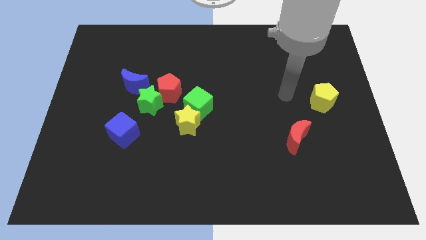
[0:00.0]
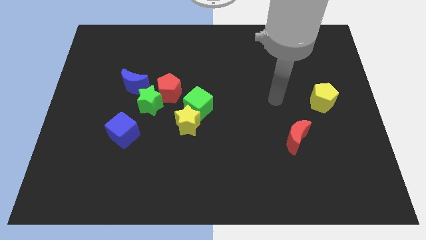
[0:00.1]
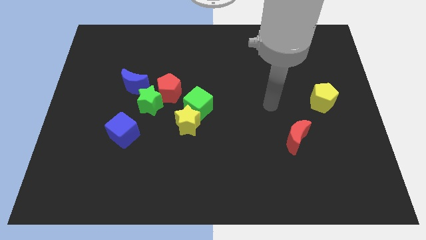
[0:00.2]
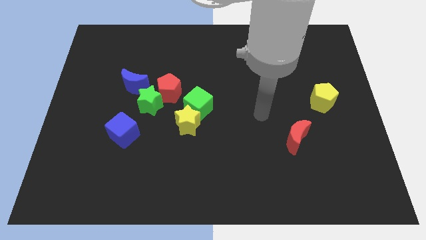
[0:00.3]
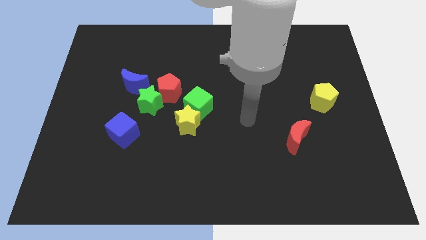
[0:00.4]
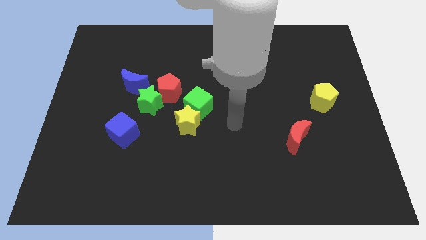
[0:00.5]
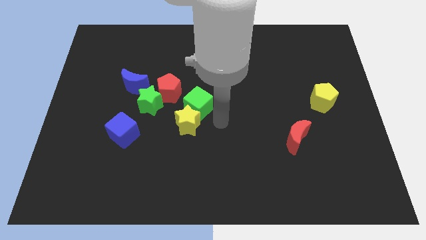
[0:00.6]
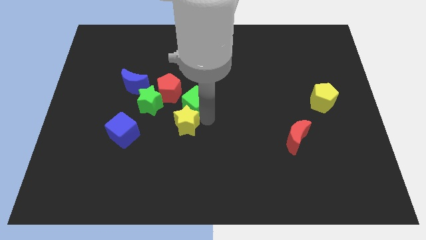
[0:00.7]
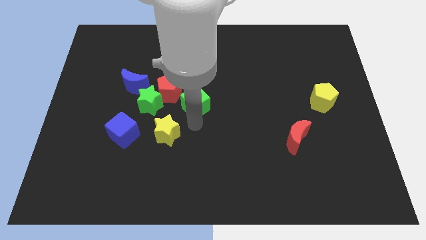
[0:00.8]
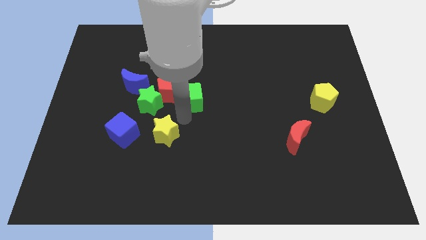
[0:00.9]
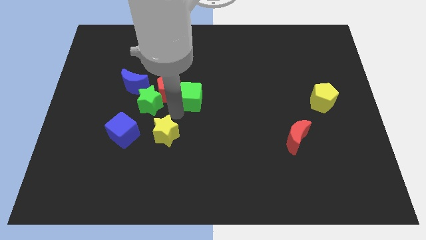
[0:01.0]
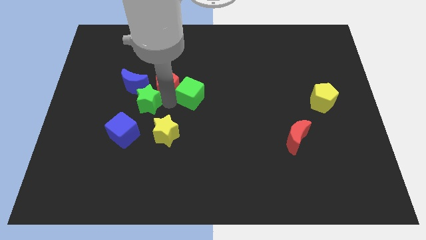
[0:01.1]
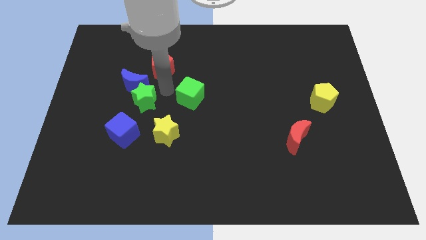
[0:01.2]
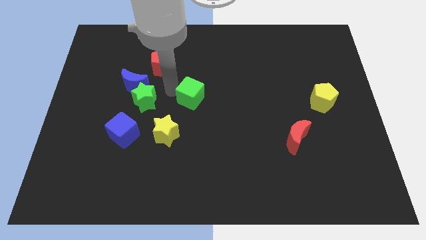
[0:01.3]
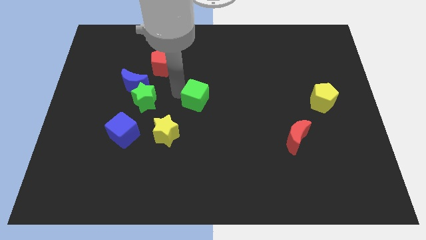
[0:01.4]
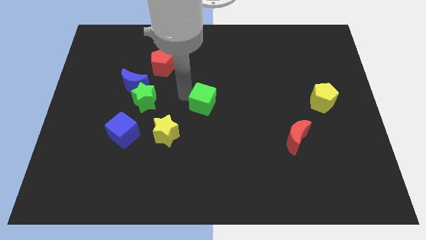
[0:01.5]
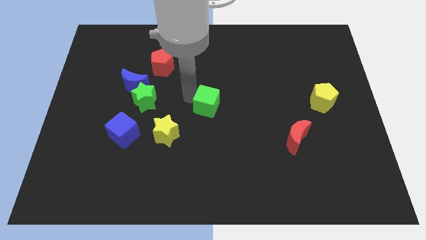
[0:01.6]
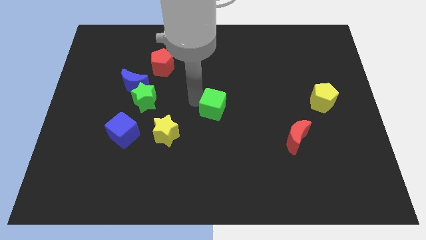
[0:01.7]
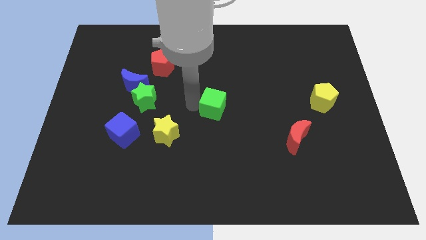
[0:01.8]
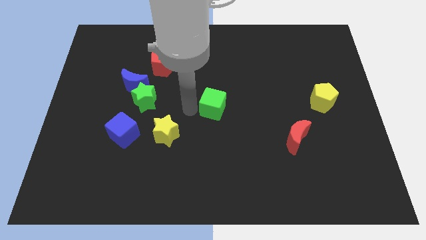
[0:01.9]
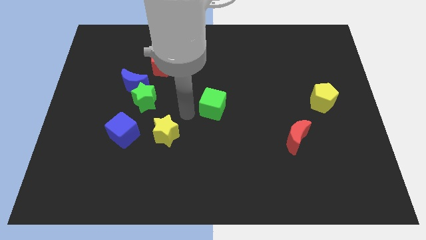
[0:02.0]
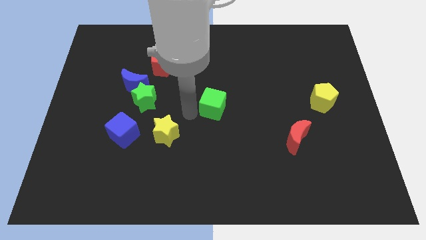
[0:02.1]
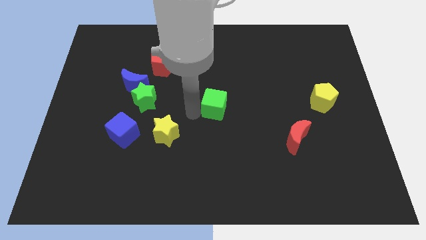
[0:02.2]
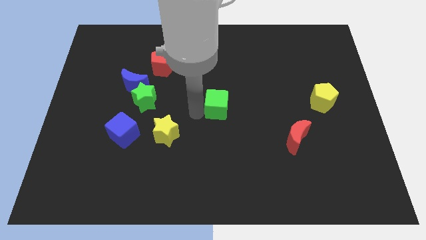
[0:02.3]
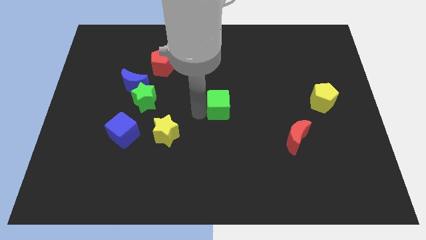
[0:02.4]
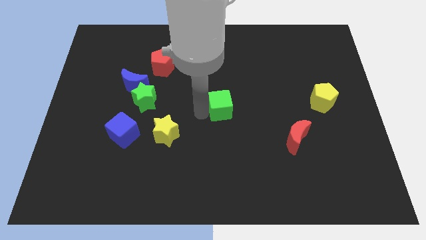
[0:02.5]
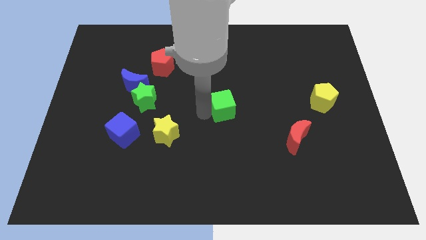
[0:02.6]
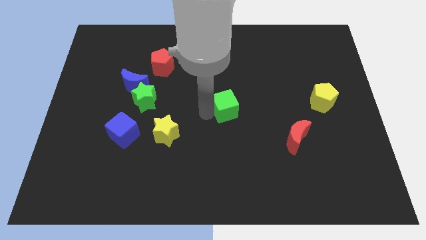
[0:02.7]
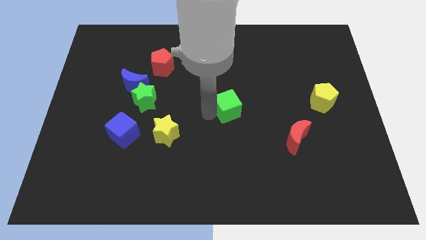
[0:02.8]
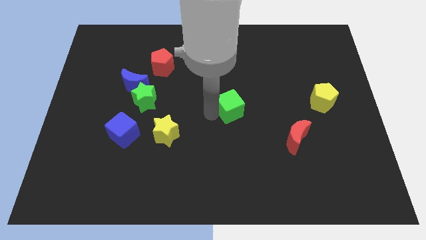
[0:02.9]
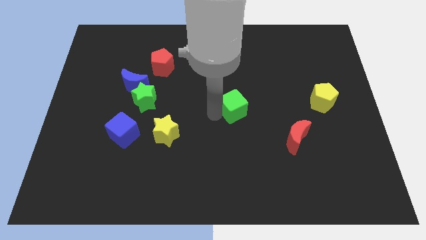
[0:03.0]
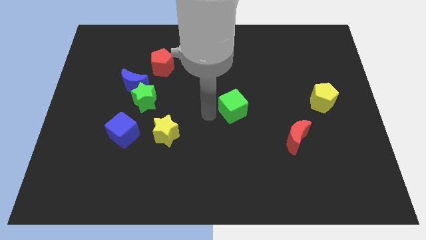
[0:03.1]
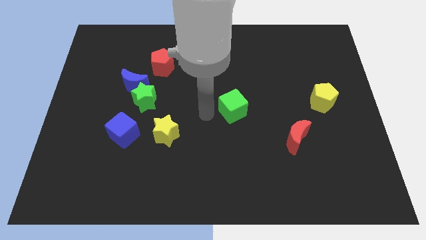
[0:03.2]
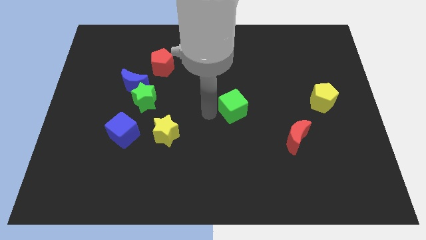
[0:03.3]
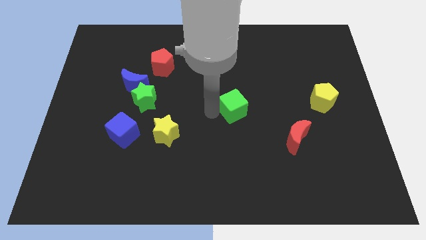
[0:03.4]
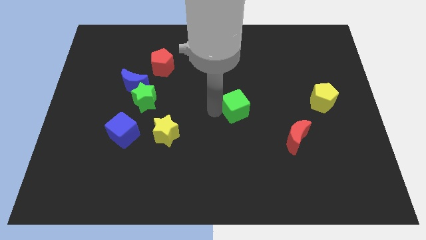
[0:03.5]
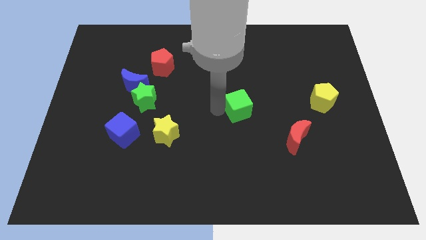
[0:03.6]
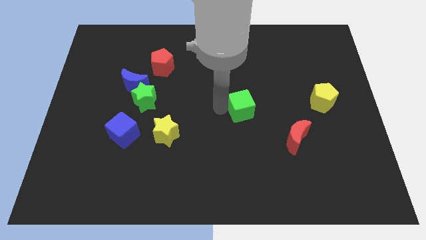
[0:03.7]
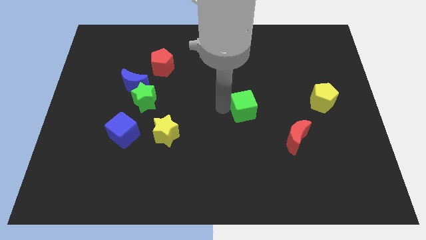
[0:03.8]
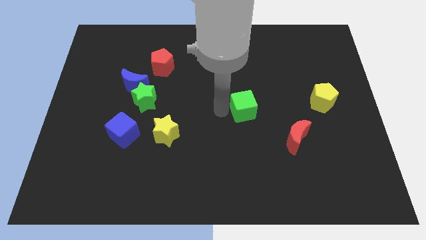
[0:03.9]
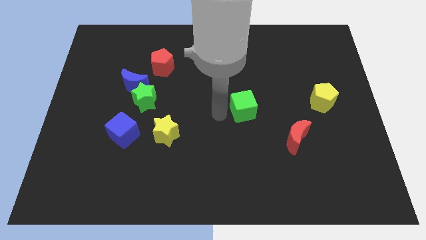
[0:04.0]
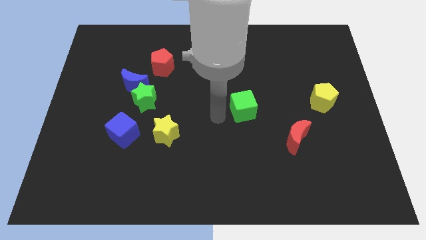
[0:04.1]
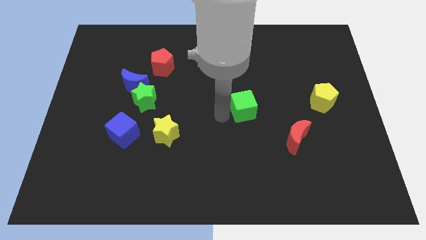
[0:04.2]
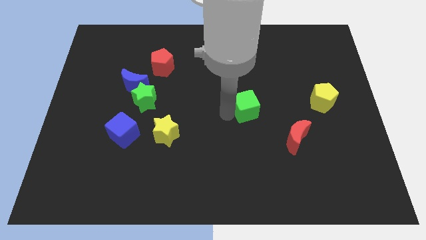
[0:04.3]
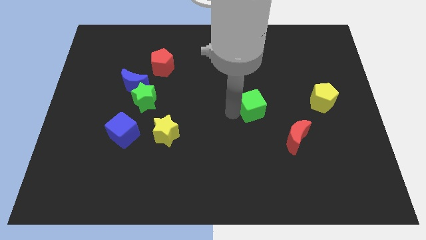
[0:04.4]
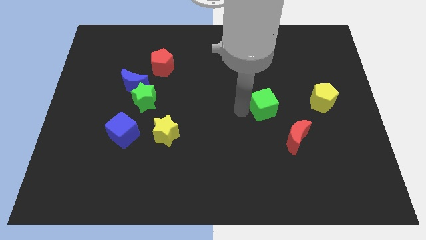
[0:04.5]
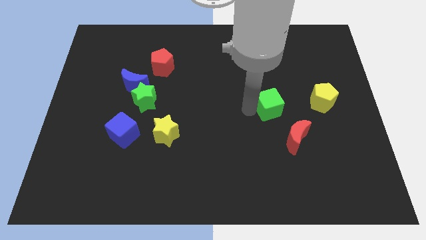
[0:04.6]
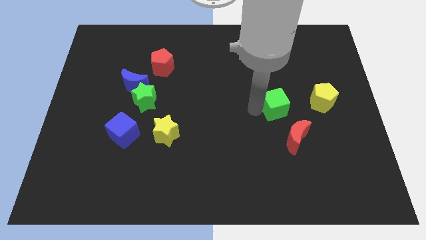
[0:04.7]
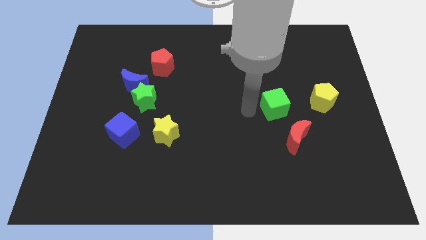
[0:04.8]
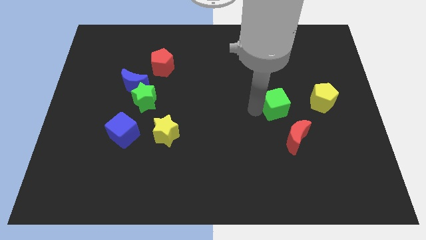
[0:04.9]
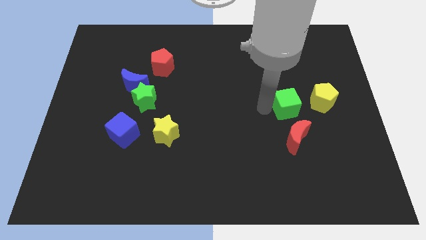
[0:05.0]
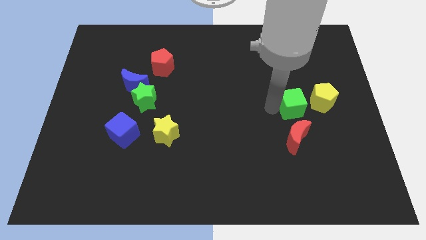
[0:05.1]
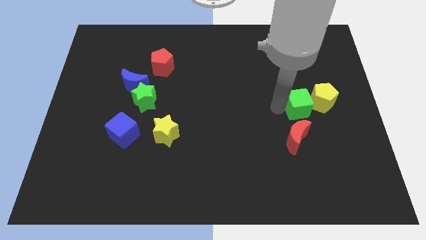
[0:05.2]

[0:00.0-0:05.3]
slide the green cube to the yellow pentagon

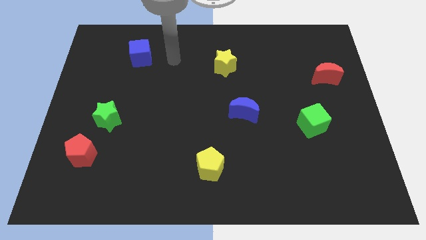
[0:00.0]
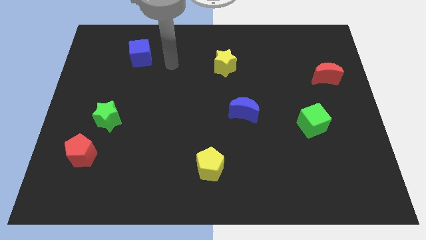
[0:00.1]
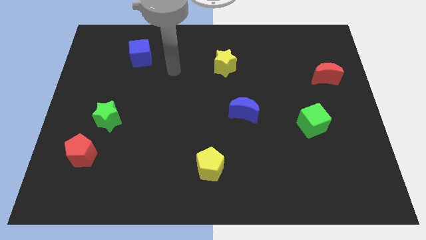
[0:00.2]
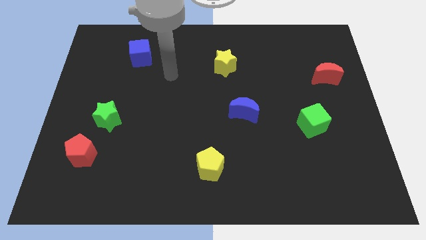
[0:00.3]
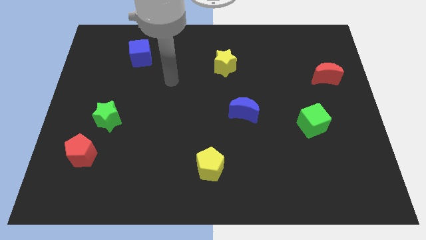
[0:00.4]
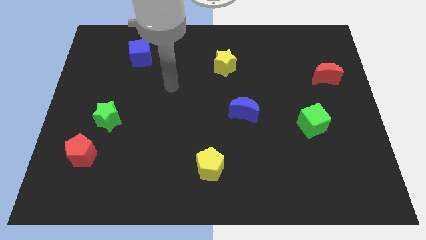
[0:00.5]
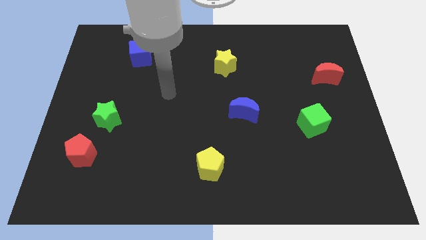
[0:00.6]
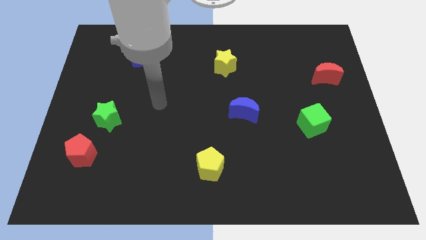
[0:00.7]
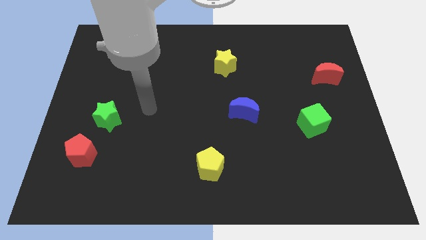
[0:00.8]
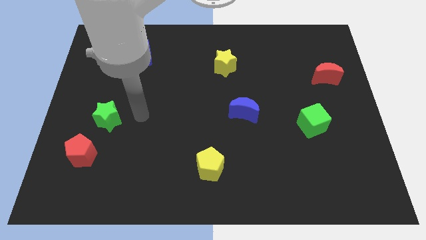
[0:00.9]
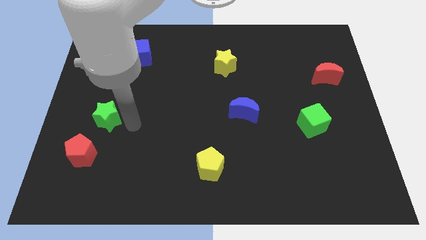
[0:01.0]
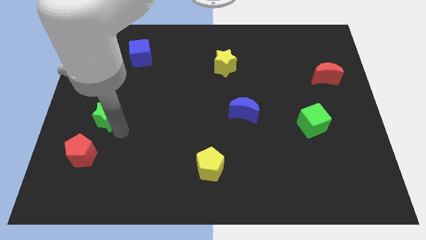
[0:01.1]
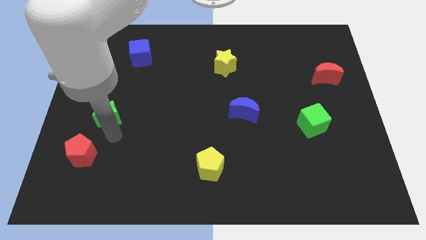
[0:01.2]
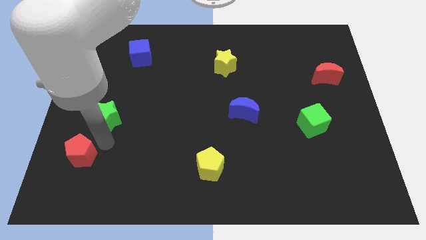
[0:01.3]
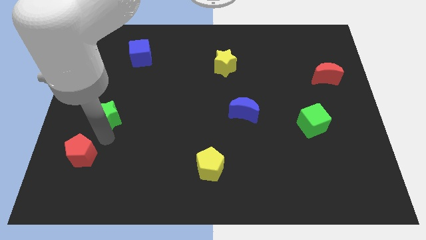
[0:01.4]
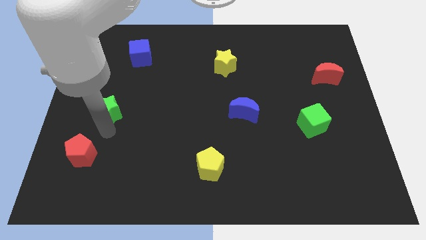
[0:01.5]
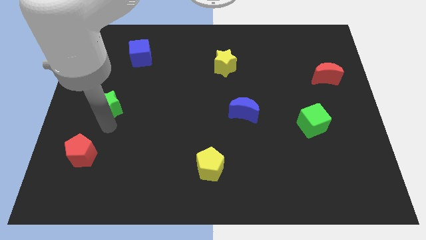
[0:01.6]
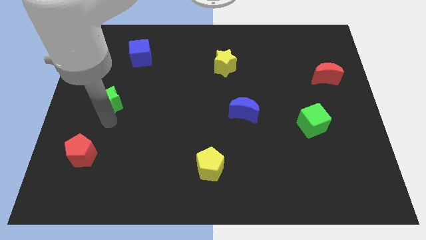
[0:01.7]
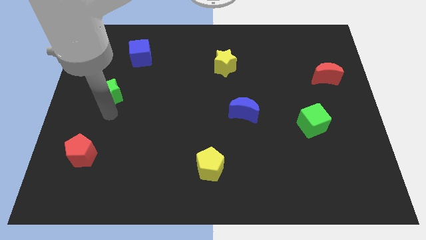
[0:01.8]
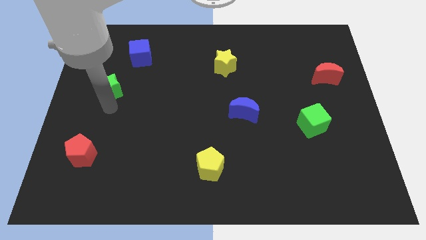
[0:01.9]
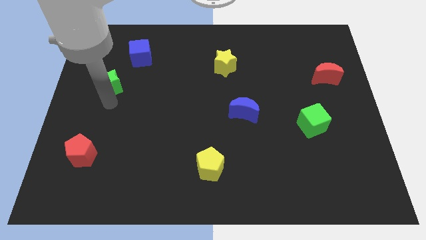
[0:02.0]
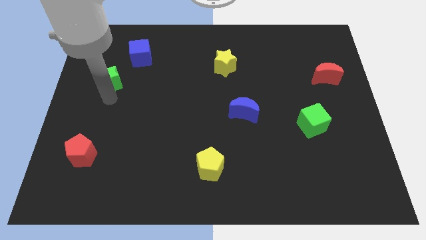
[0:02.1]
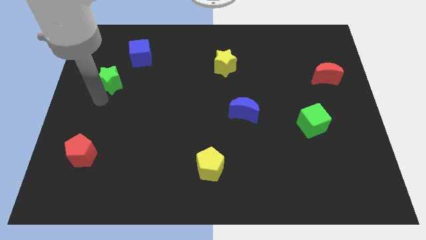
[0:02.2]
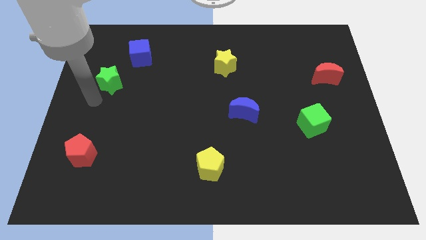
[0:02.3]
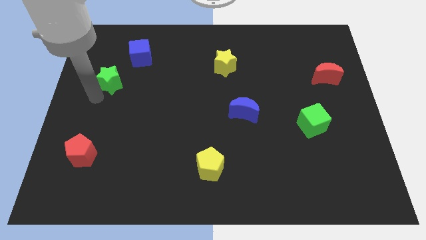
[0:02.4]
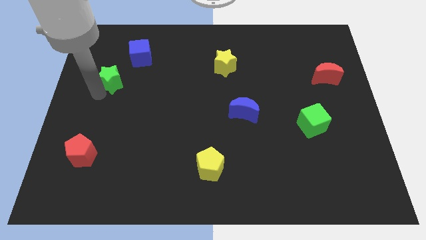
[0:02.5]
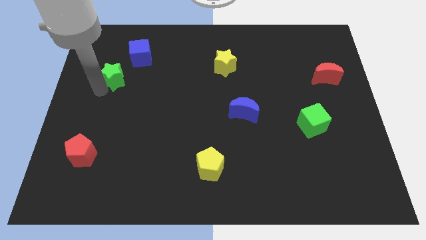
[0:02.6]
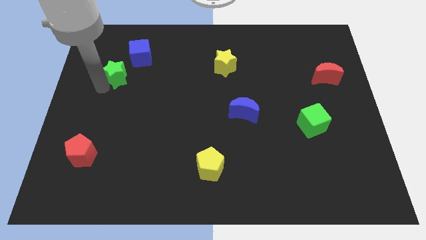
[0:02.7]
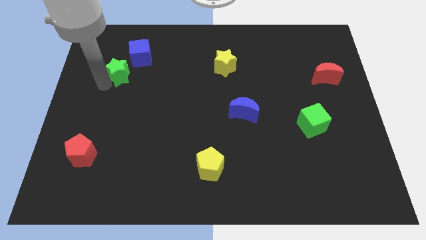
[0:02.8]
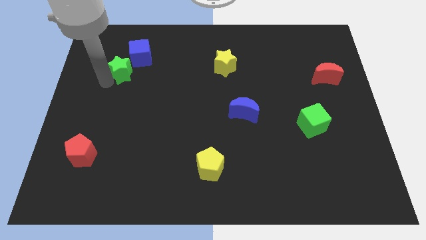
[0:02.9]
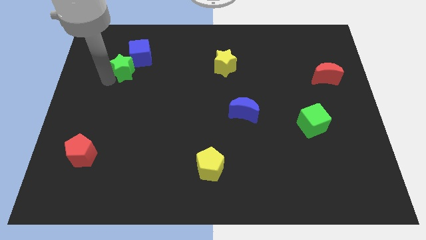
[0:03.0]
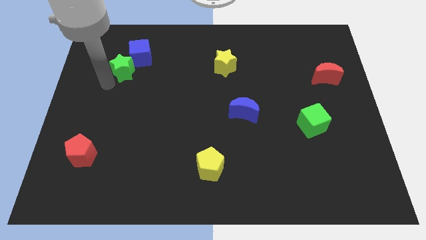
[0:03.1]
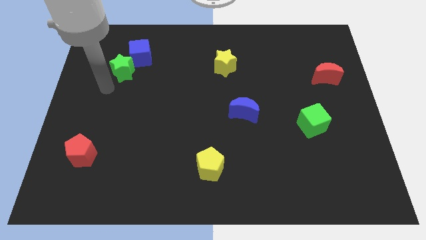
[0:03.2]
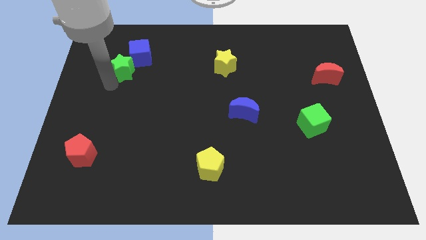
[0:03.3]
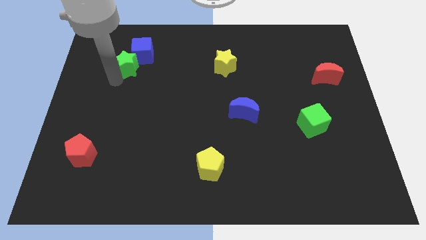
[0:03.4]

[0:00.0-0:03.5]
move the green star to the blue cube
